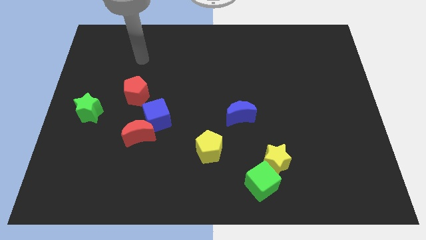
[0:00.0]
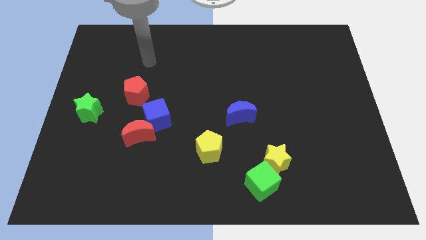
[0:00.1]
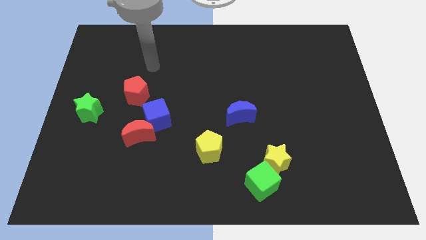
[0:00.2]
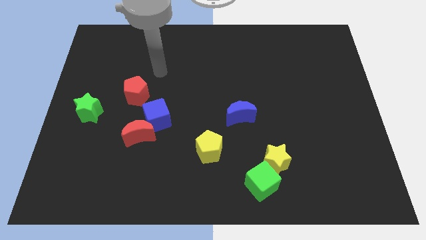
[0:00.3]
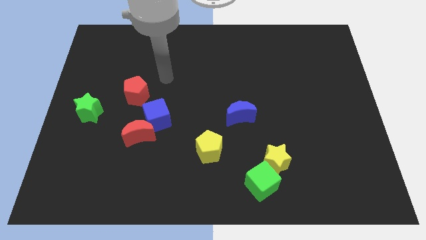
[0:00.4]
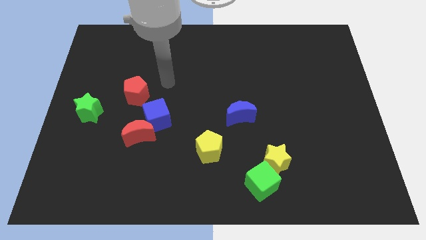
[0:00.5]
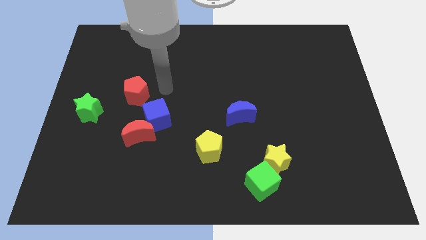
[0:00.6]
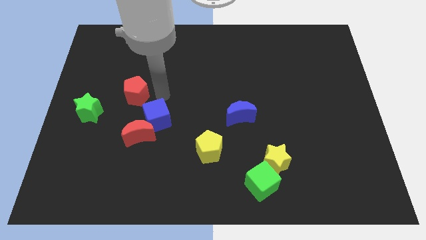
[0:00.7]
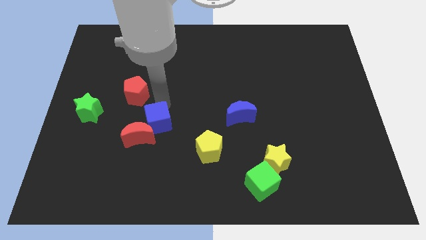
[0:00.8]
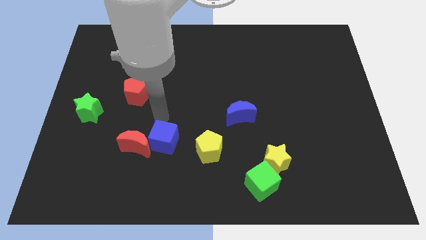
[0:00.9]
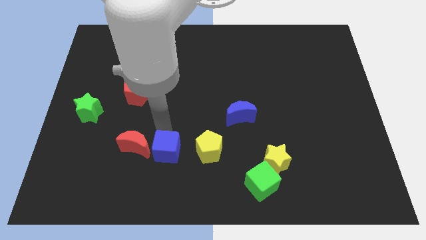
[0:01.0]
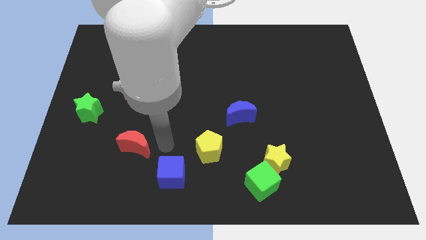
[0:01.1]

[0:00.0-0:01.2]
separate the red moon from the blue cube

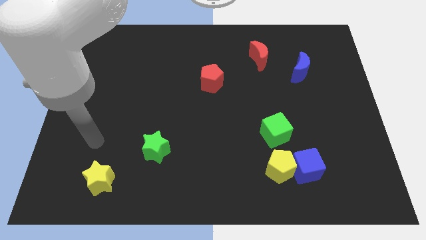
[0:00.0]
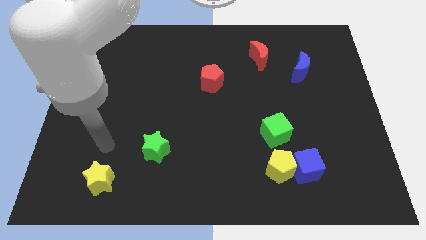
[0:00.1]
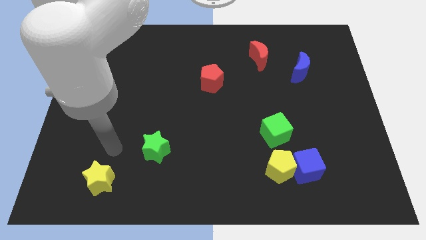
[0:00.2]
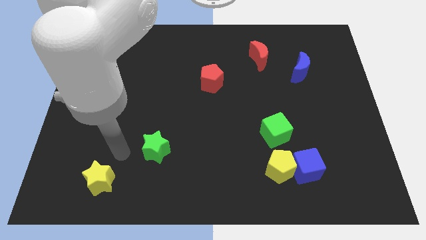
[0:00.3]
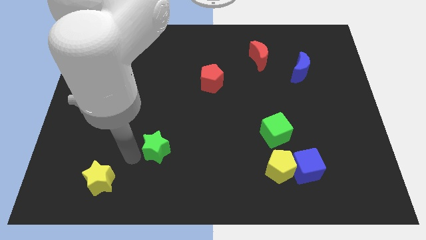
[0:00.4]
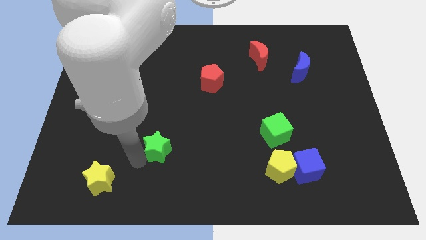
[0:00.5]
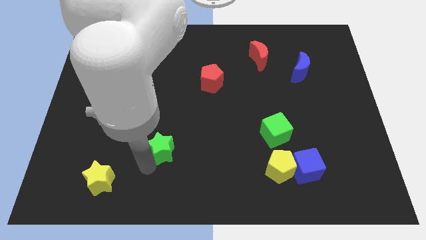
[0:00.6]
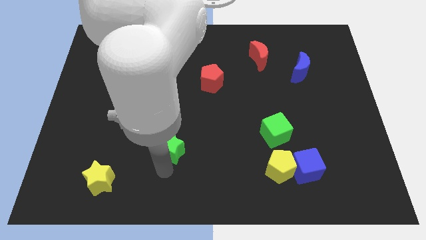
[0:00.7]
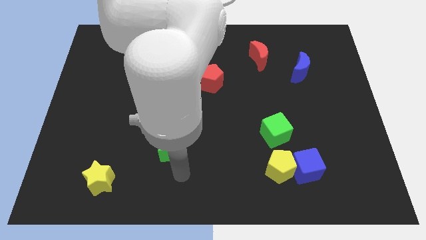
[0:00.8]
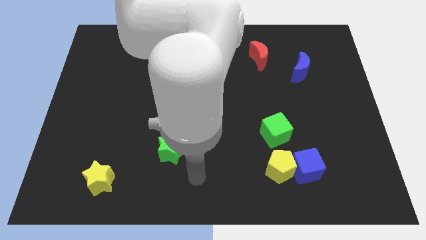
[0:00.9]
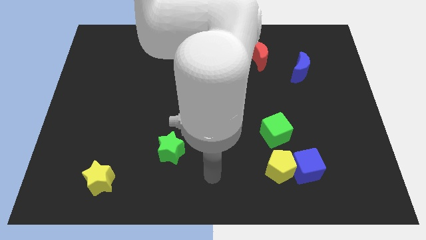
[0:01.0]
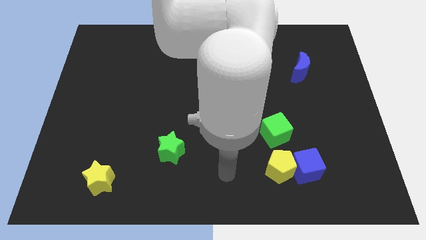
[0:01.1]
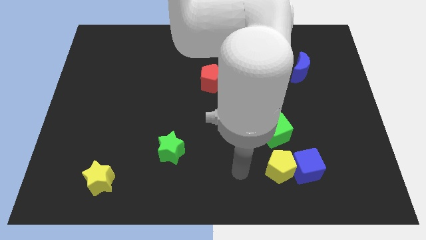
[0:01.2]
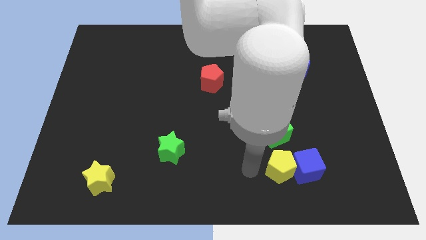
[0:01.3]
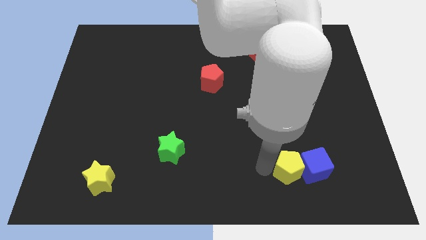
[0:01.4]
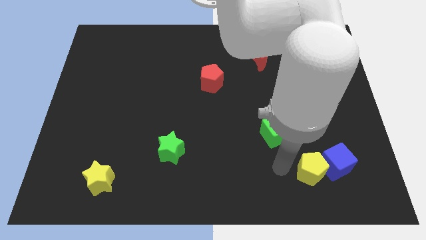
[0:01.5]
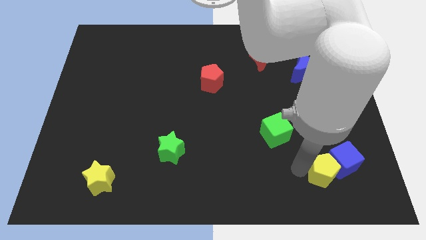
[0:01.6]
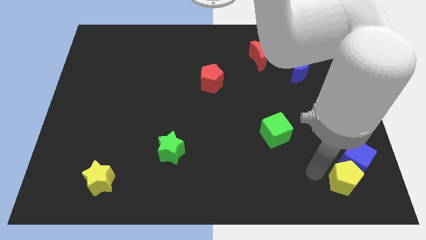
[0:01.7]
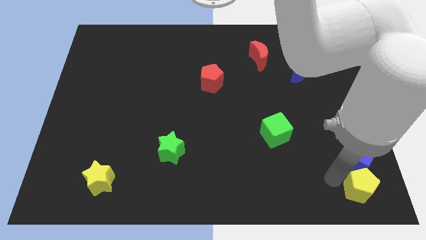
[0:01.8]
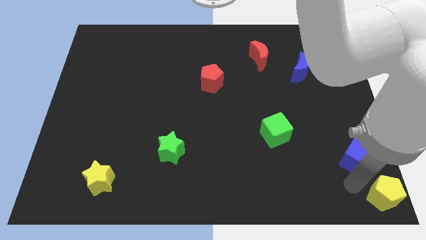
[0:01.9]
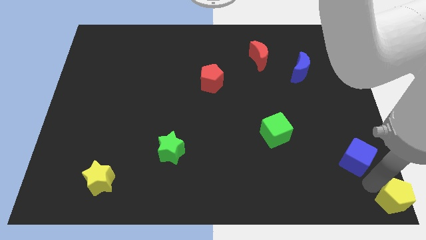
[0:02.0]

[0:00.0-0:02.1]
move the blue cube away from the yellow pentagon

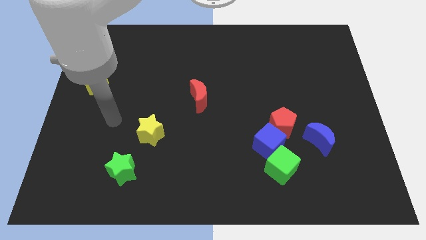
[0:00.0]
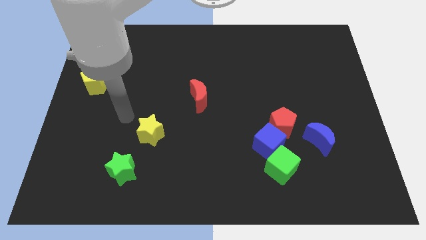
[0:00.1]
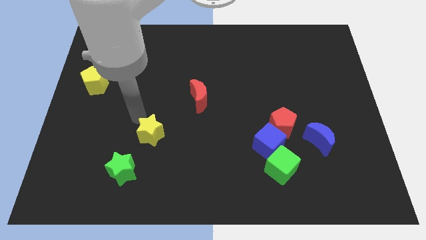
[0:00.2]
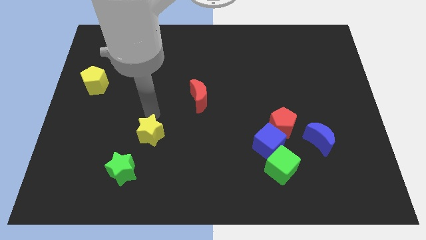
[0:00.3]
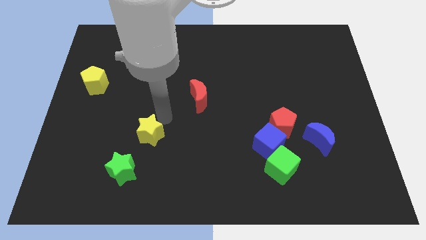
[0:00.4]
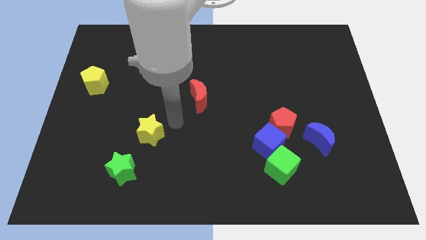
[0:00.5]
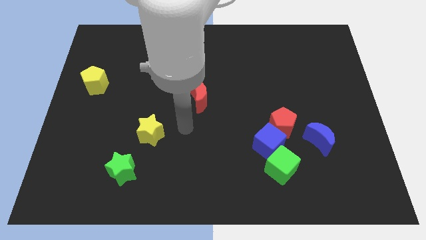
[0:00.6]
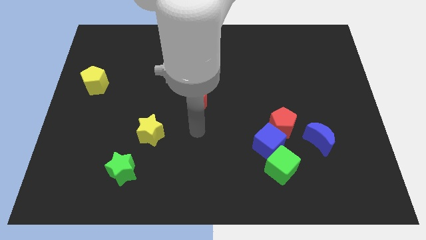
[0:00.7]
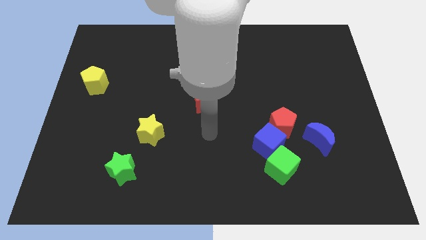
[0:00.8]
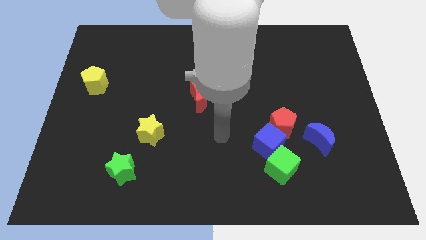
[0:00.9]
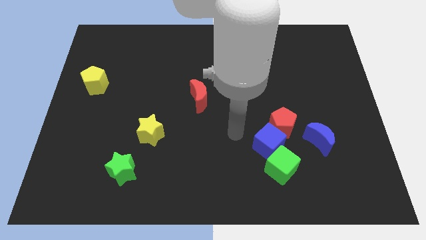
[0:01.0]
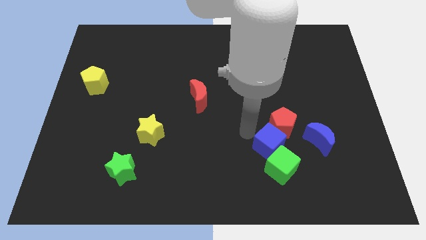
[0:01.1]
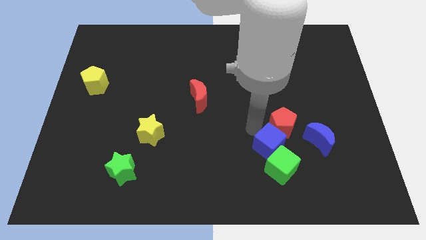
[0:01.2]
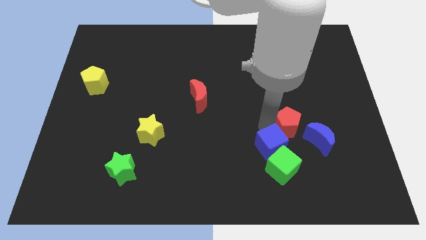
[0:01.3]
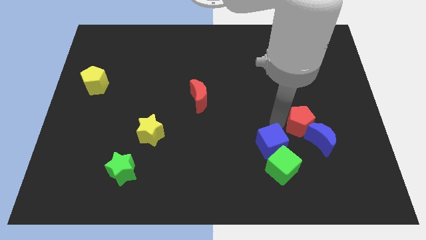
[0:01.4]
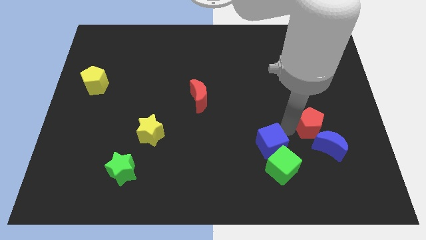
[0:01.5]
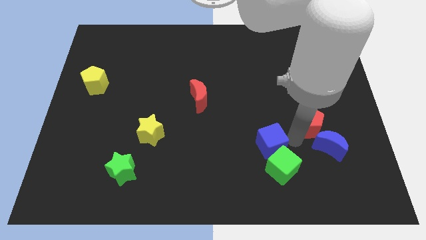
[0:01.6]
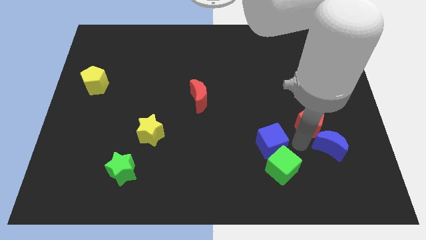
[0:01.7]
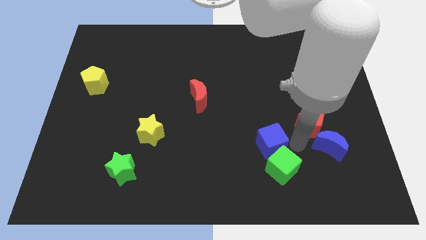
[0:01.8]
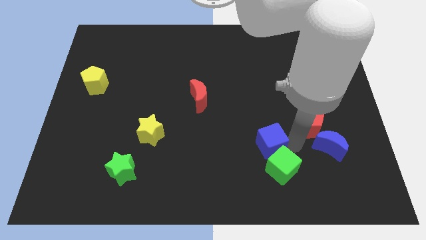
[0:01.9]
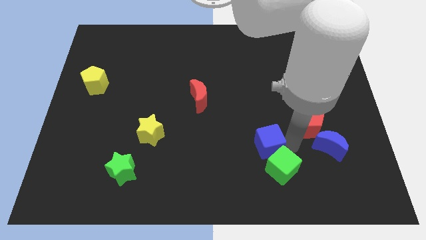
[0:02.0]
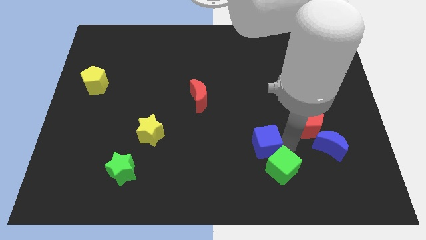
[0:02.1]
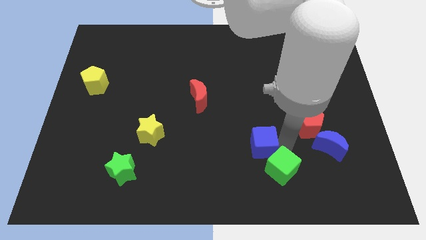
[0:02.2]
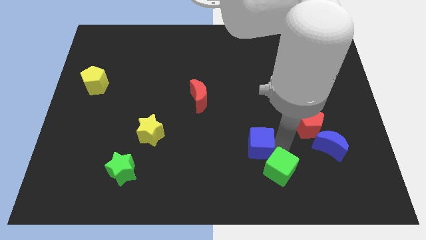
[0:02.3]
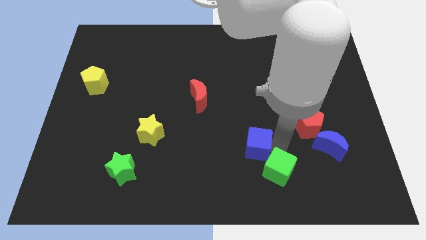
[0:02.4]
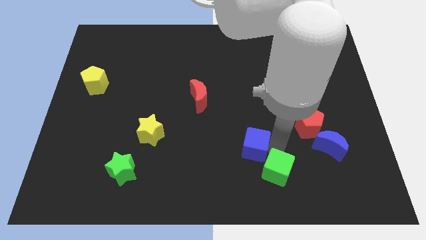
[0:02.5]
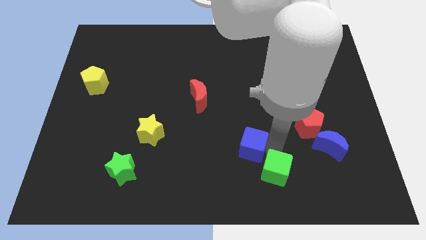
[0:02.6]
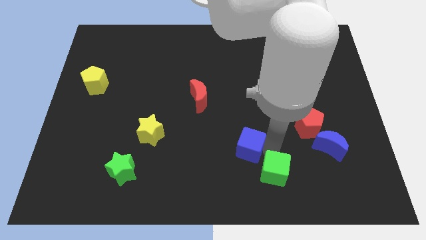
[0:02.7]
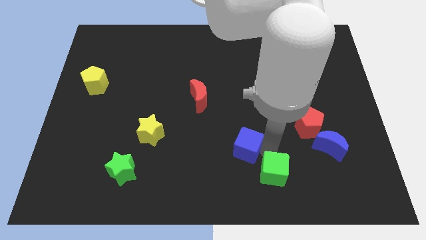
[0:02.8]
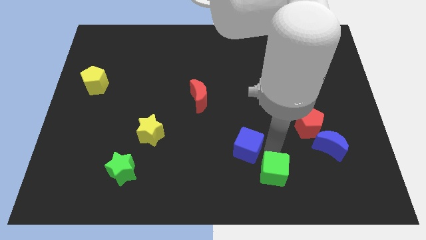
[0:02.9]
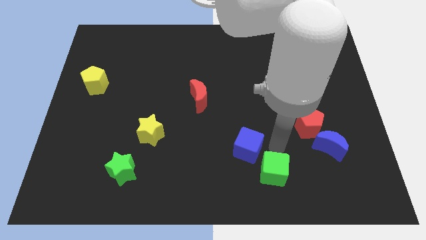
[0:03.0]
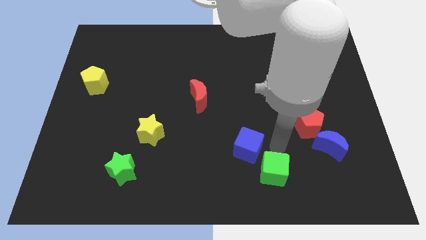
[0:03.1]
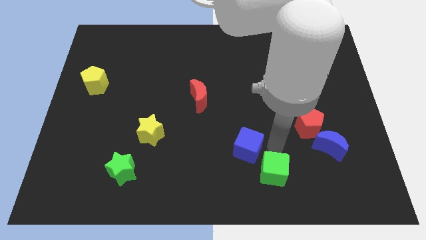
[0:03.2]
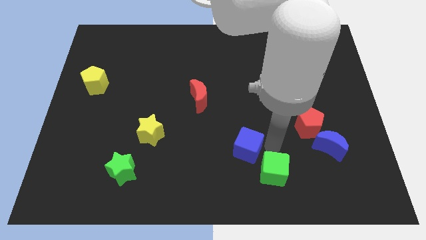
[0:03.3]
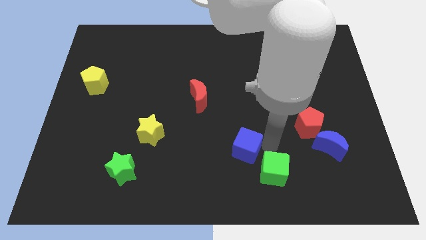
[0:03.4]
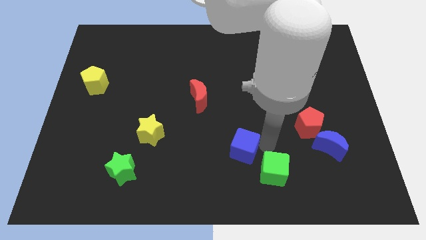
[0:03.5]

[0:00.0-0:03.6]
separate the blue cube from the red pentagon and green cube

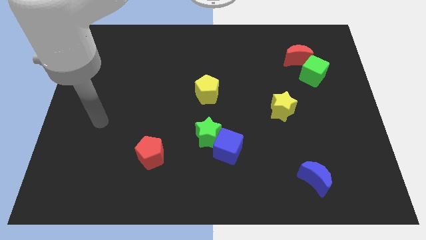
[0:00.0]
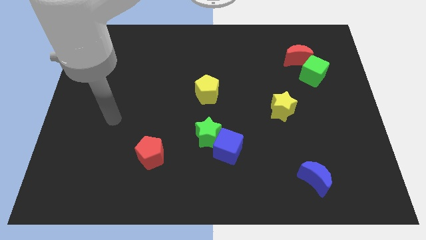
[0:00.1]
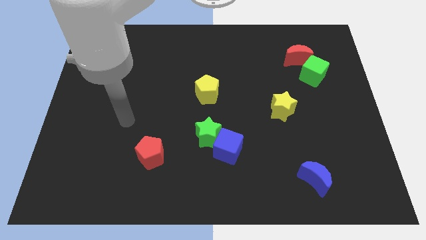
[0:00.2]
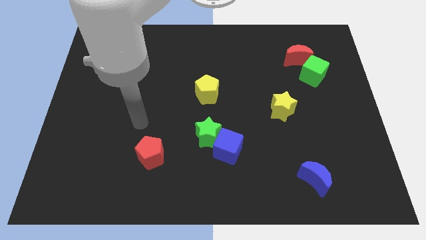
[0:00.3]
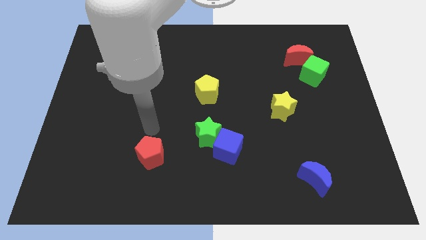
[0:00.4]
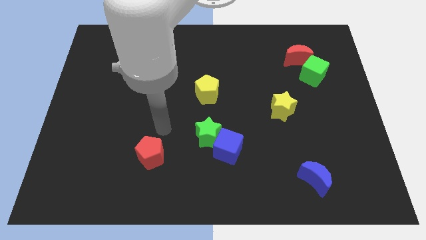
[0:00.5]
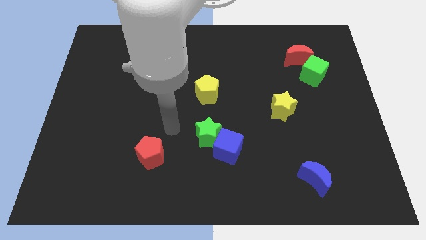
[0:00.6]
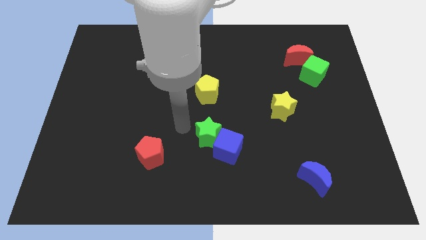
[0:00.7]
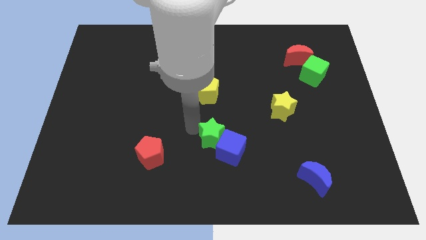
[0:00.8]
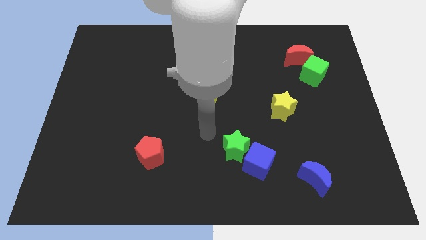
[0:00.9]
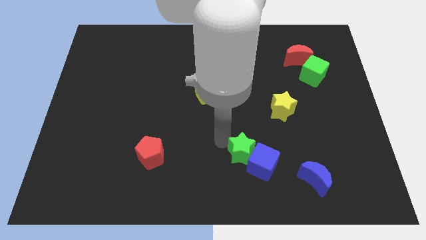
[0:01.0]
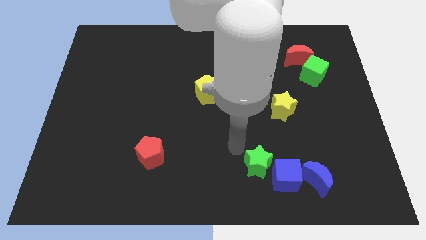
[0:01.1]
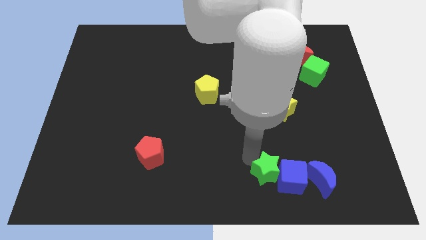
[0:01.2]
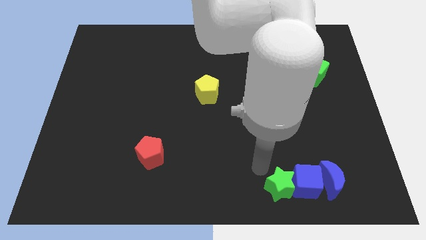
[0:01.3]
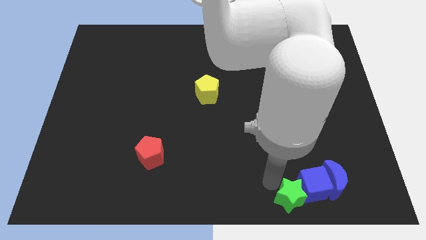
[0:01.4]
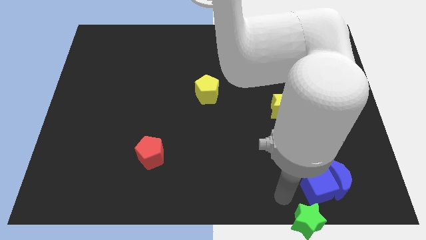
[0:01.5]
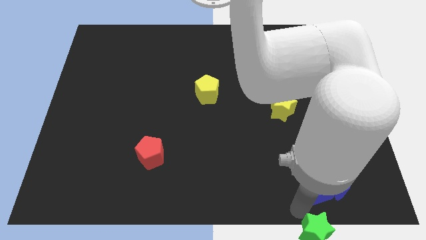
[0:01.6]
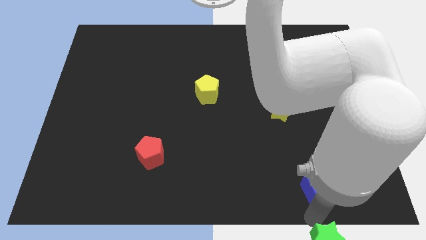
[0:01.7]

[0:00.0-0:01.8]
pull the blue cube apart from the green star

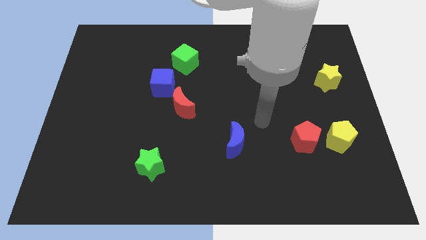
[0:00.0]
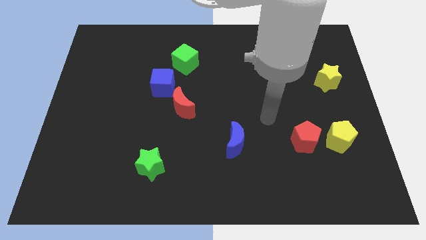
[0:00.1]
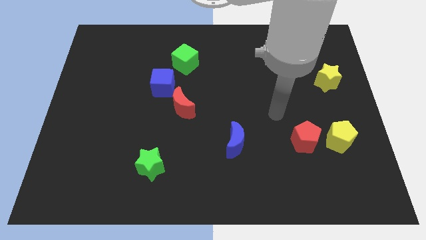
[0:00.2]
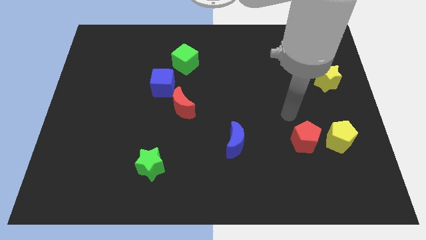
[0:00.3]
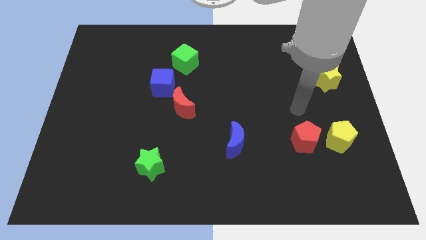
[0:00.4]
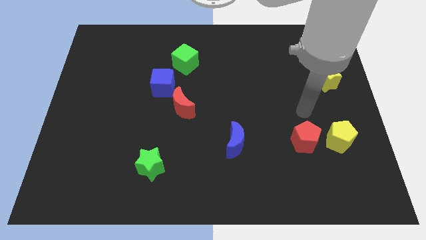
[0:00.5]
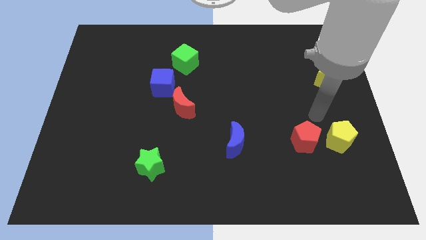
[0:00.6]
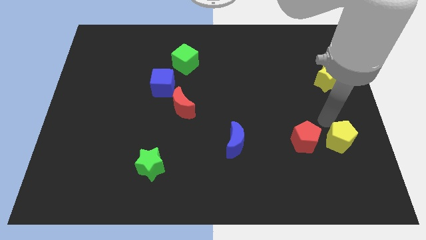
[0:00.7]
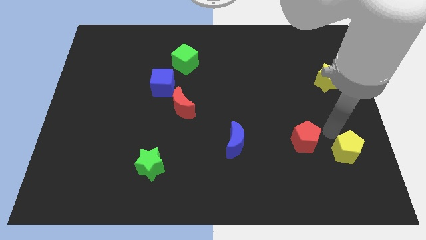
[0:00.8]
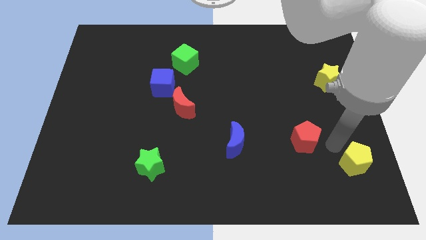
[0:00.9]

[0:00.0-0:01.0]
pull the red pentagon apart from the yellow pentagon
